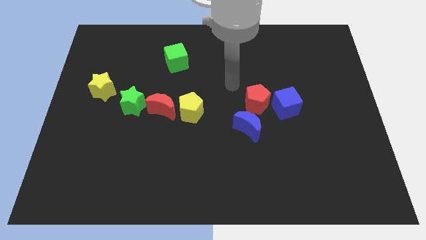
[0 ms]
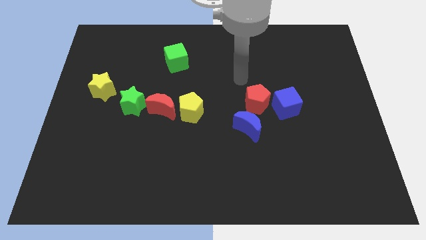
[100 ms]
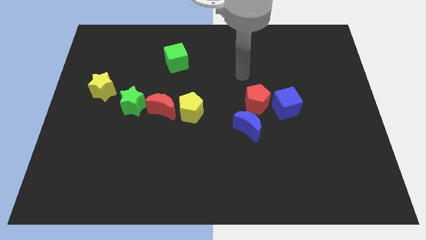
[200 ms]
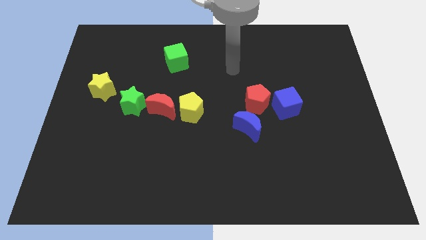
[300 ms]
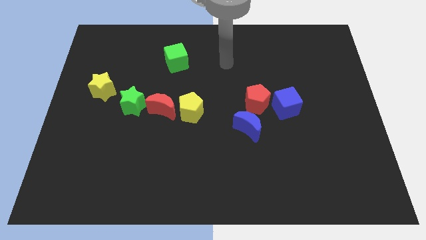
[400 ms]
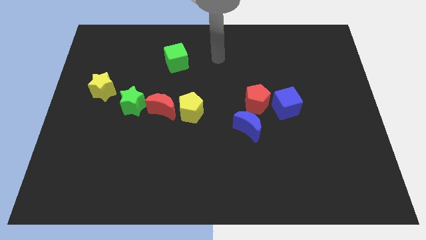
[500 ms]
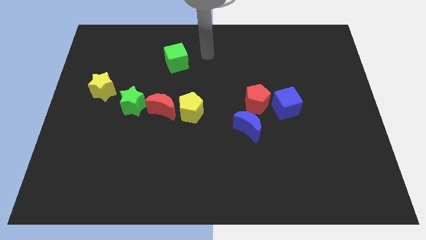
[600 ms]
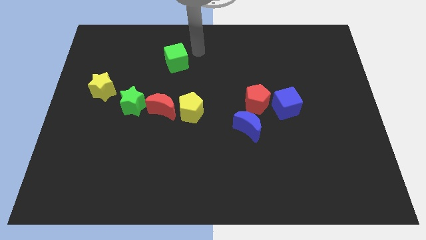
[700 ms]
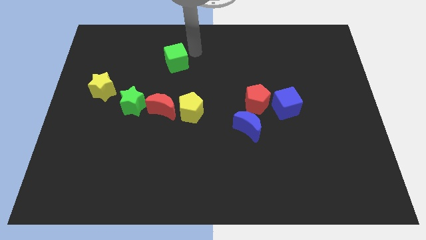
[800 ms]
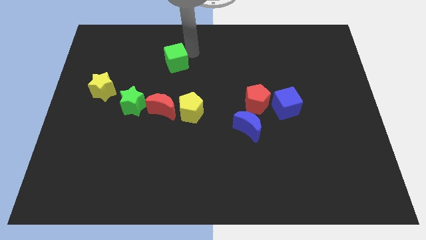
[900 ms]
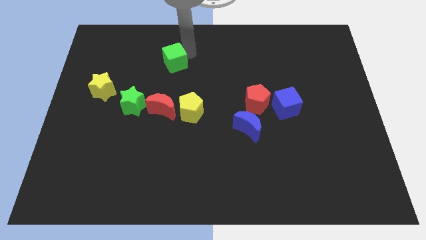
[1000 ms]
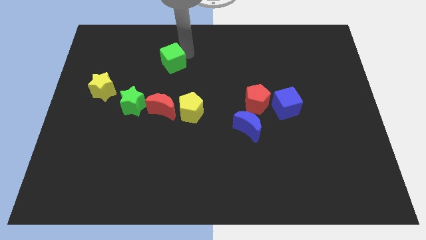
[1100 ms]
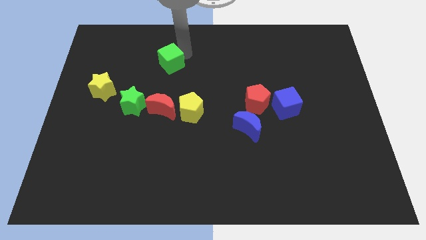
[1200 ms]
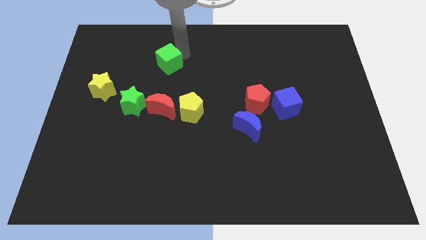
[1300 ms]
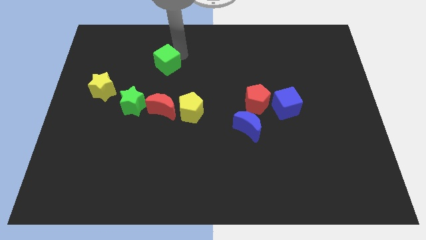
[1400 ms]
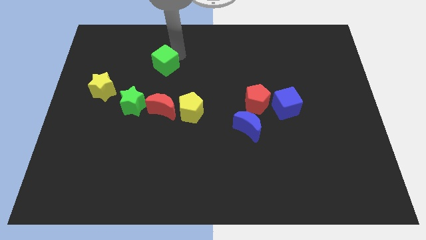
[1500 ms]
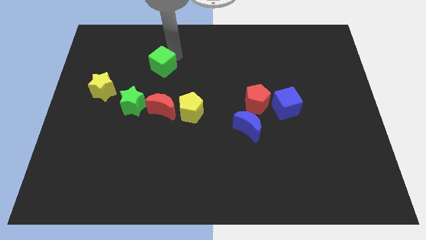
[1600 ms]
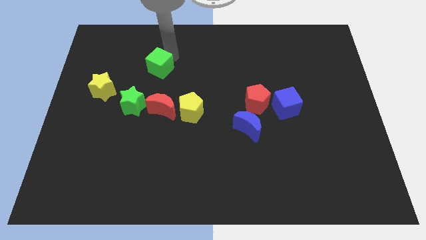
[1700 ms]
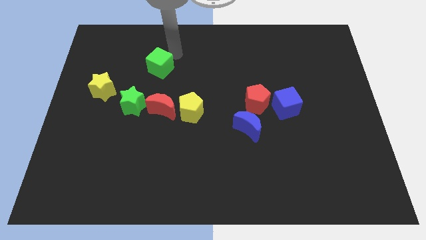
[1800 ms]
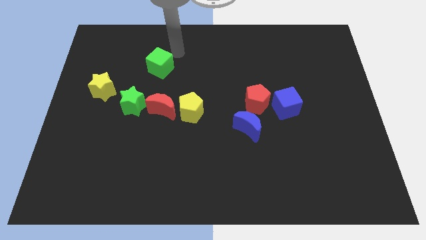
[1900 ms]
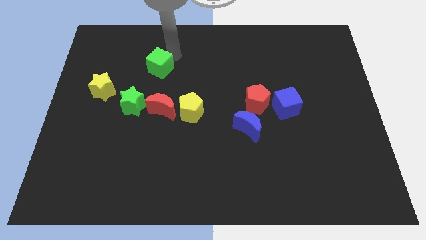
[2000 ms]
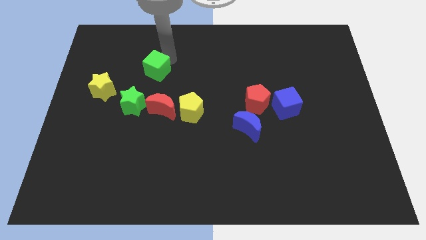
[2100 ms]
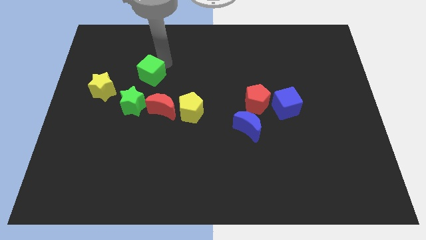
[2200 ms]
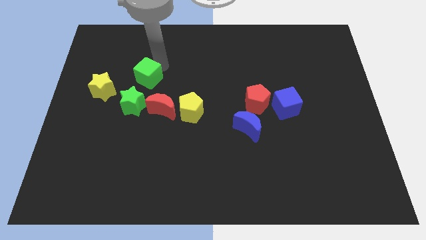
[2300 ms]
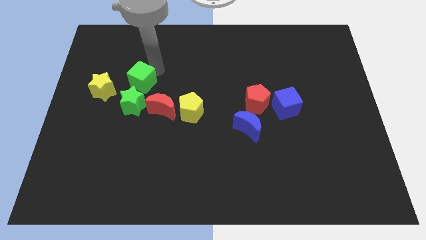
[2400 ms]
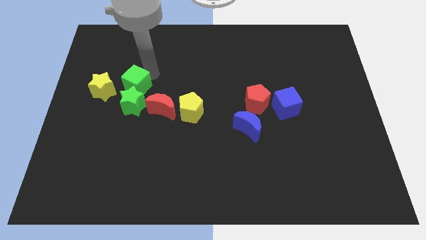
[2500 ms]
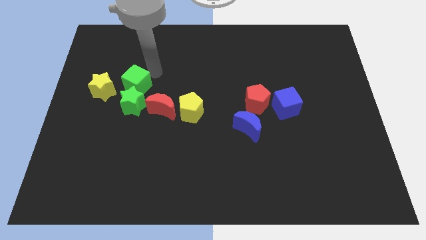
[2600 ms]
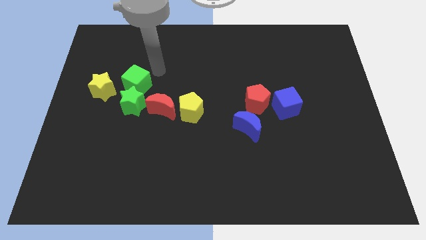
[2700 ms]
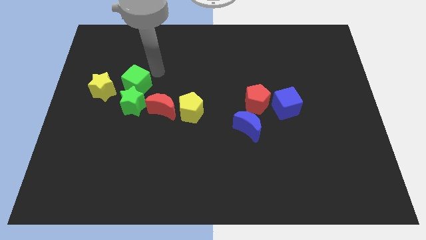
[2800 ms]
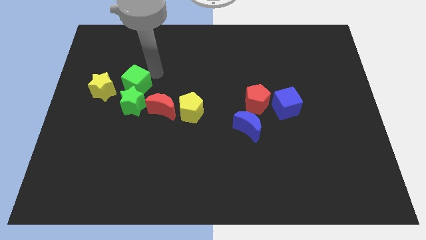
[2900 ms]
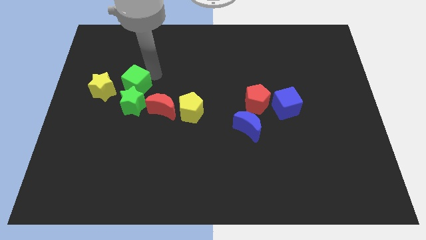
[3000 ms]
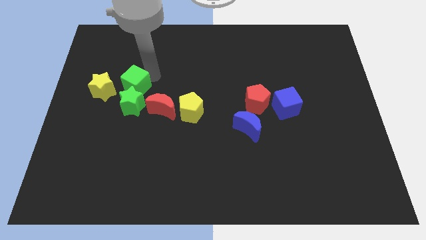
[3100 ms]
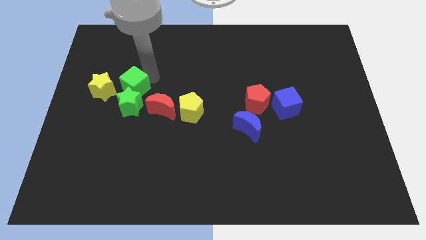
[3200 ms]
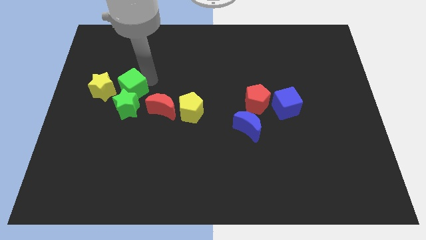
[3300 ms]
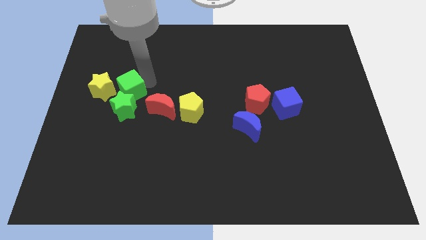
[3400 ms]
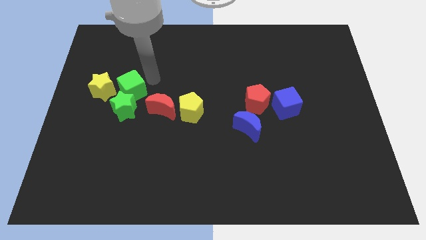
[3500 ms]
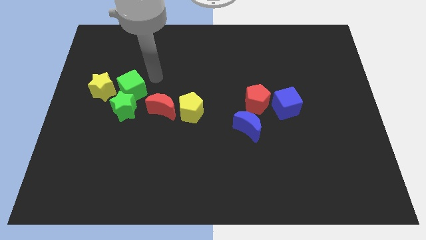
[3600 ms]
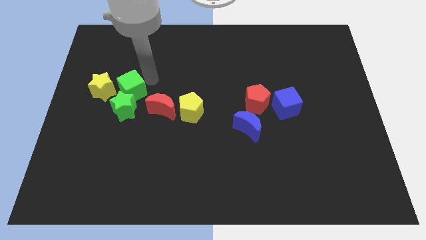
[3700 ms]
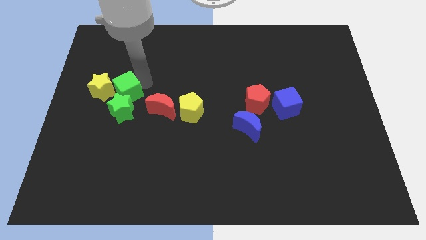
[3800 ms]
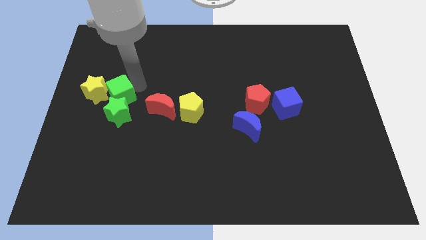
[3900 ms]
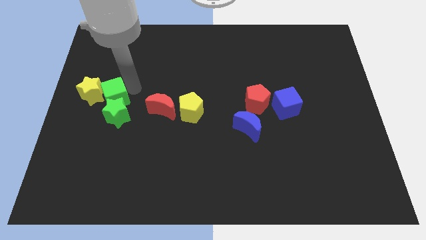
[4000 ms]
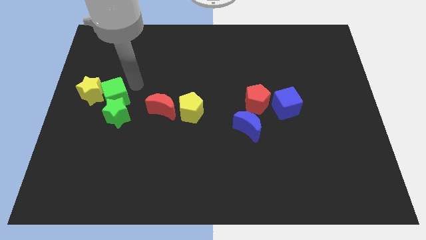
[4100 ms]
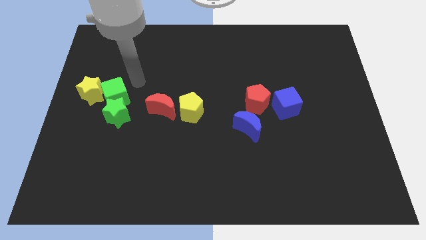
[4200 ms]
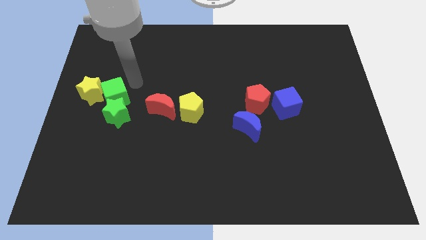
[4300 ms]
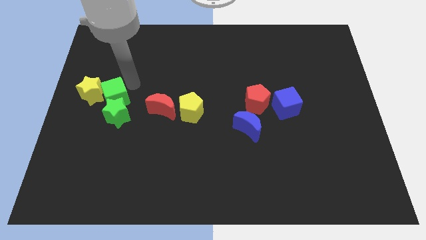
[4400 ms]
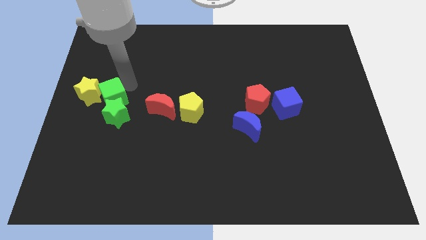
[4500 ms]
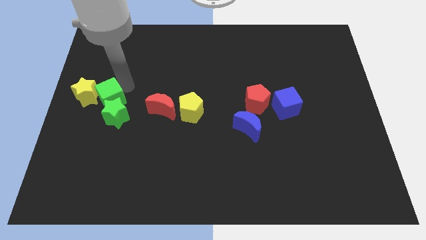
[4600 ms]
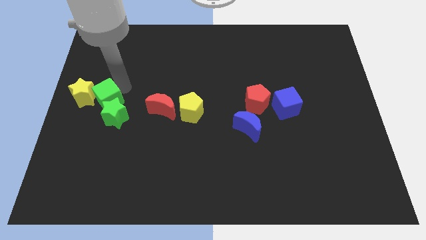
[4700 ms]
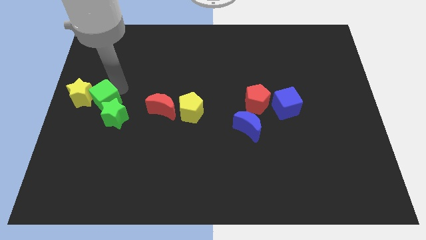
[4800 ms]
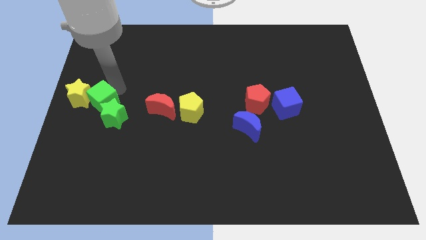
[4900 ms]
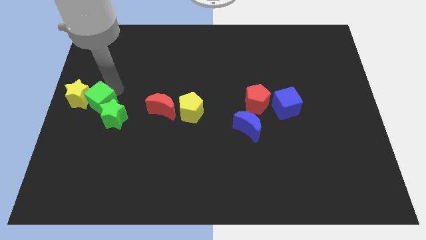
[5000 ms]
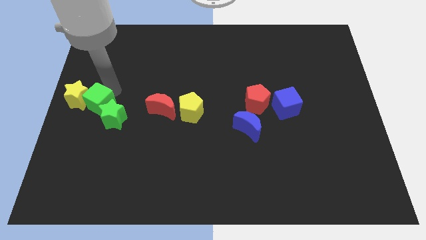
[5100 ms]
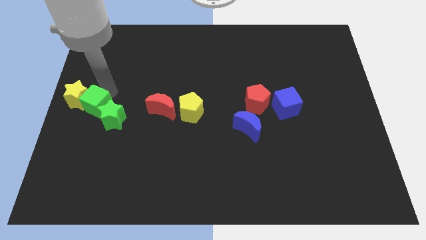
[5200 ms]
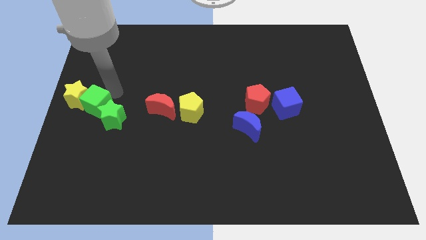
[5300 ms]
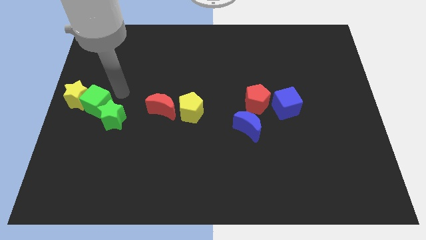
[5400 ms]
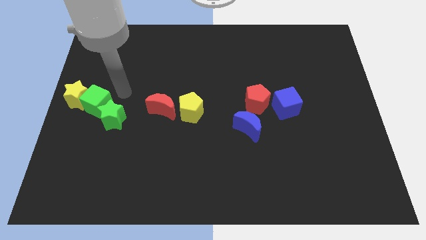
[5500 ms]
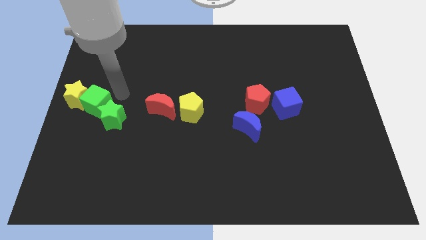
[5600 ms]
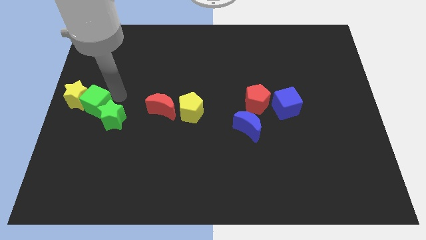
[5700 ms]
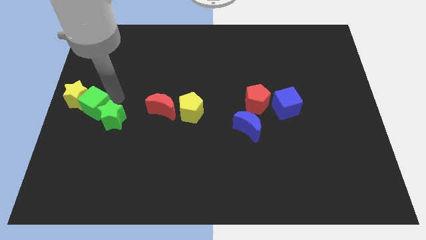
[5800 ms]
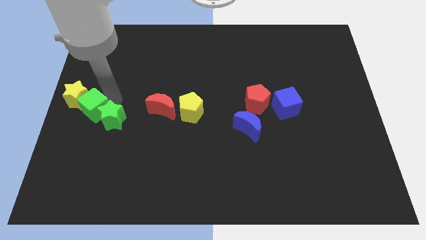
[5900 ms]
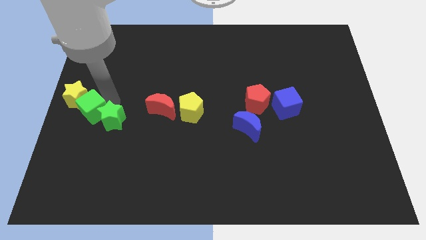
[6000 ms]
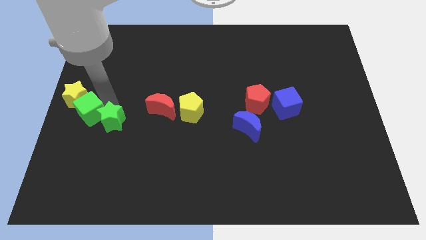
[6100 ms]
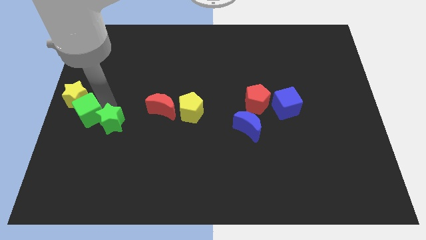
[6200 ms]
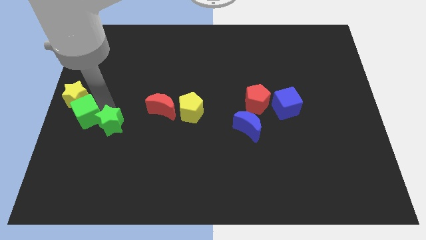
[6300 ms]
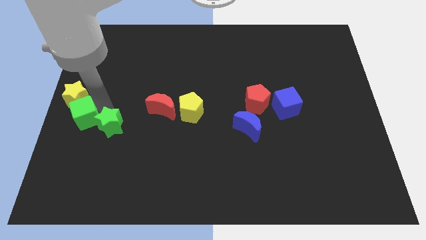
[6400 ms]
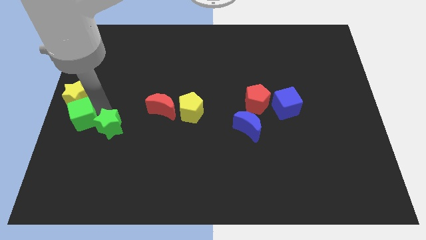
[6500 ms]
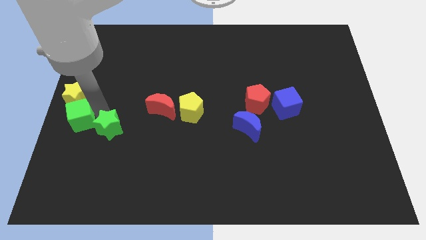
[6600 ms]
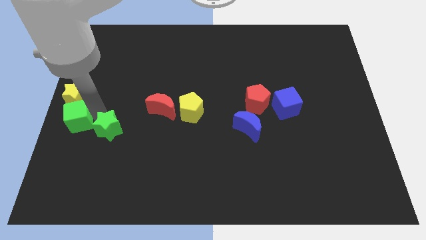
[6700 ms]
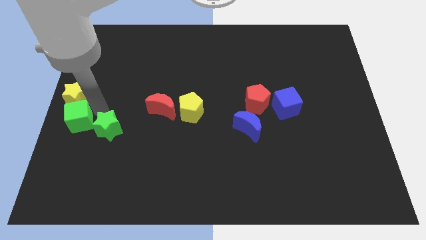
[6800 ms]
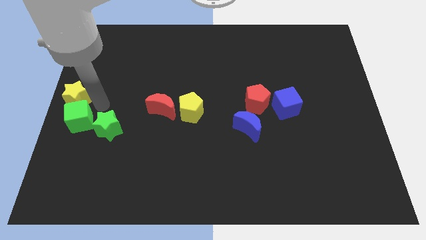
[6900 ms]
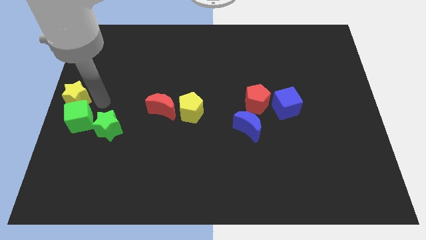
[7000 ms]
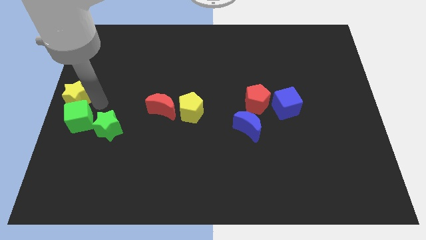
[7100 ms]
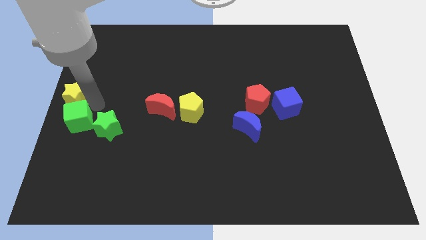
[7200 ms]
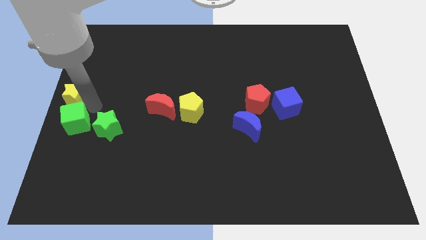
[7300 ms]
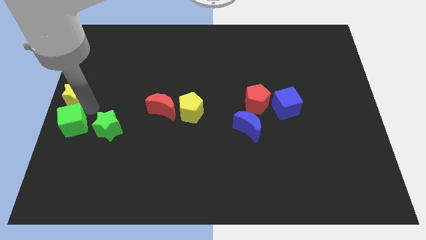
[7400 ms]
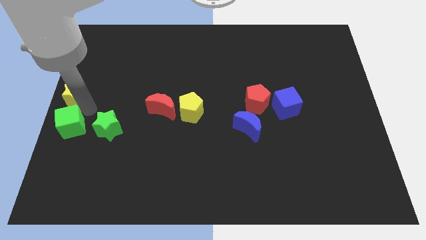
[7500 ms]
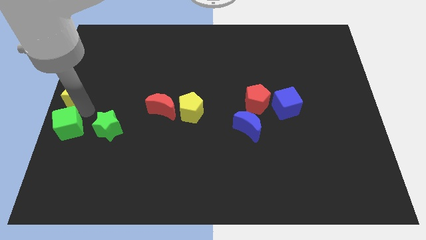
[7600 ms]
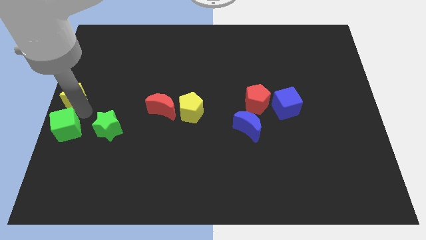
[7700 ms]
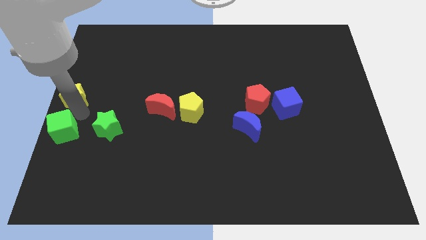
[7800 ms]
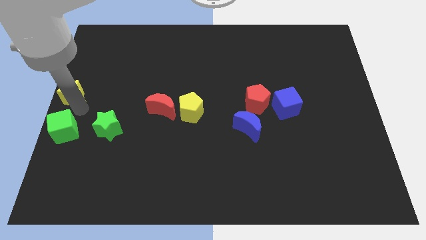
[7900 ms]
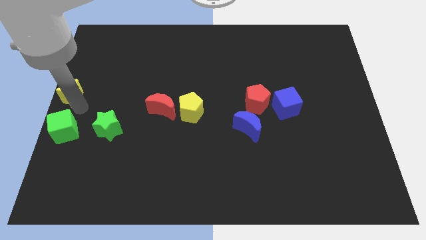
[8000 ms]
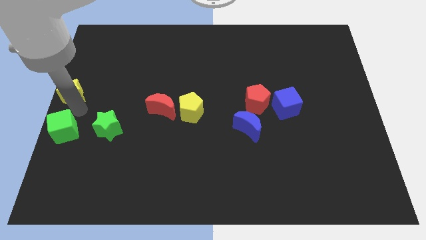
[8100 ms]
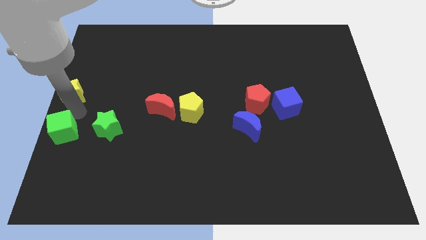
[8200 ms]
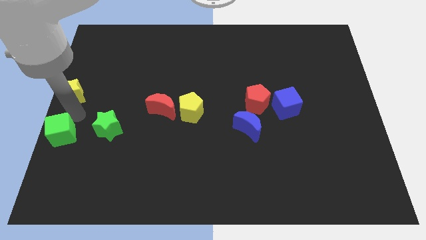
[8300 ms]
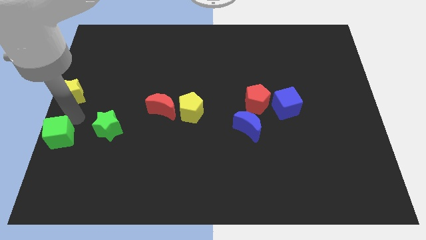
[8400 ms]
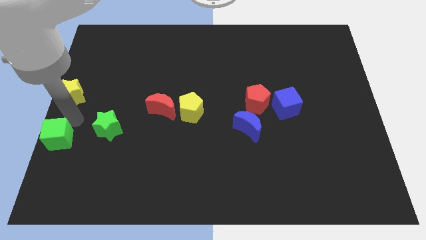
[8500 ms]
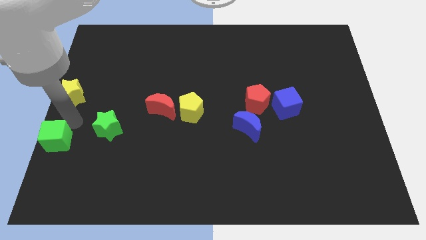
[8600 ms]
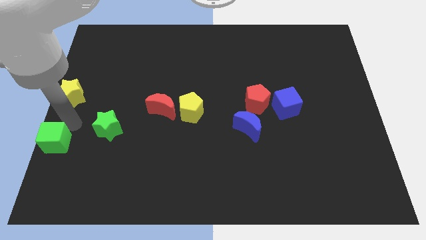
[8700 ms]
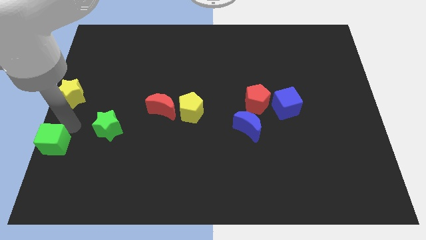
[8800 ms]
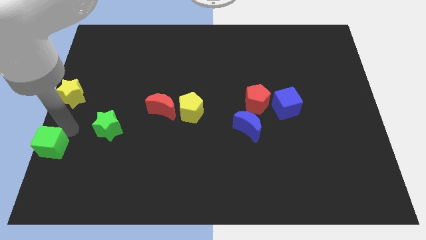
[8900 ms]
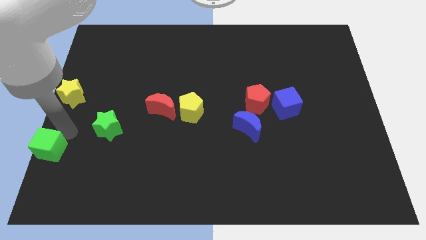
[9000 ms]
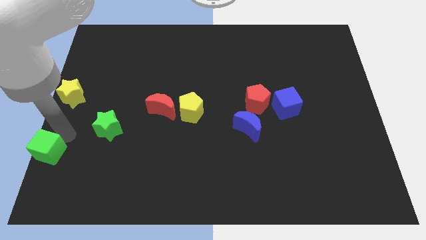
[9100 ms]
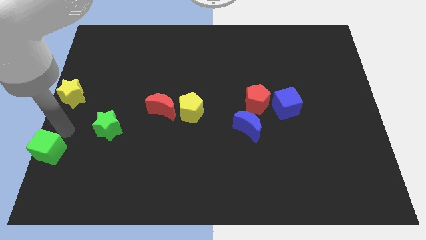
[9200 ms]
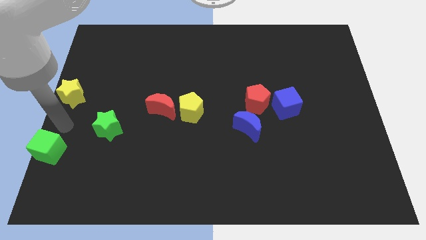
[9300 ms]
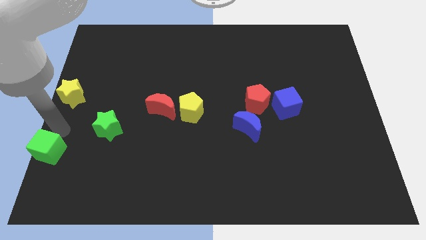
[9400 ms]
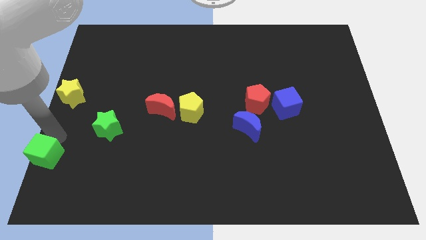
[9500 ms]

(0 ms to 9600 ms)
move the green cube to the bottom left
